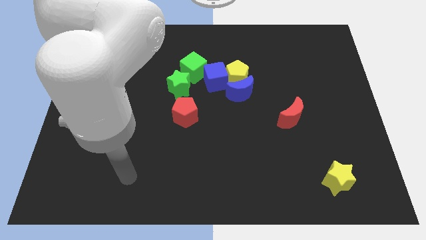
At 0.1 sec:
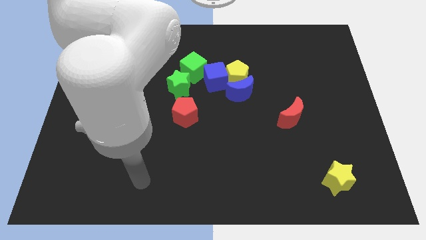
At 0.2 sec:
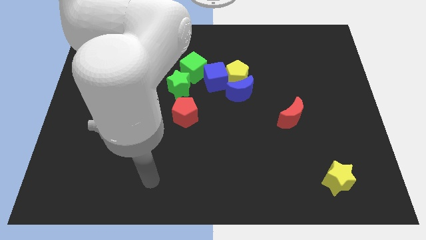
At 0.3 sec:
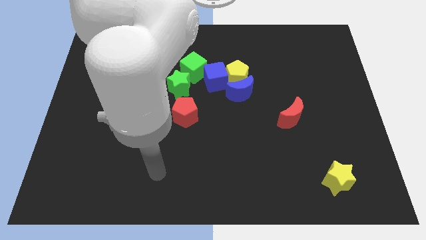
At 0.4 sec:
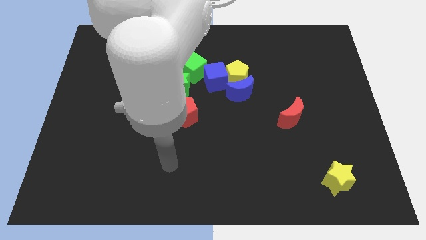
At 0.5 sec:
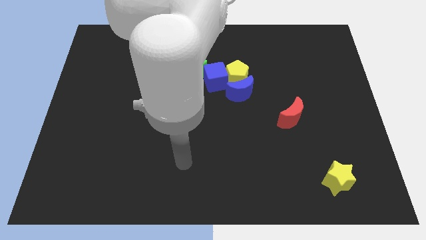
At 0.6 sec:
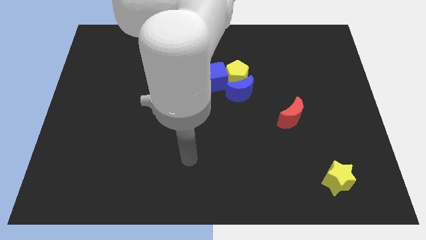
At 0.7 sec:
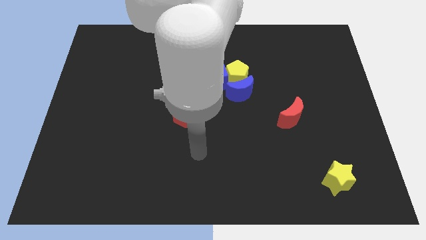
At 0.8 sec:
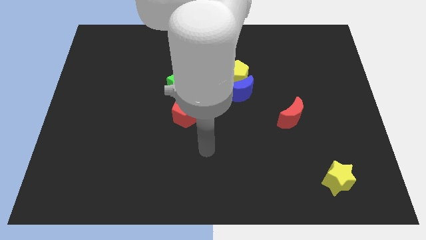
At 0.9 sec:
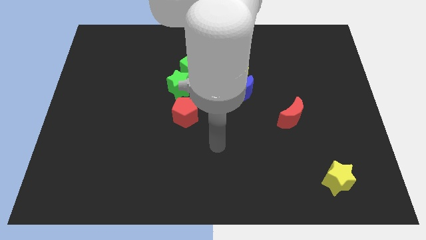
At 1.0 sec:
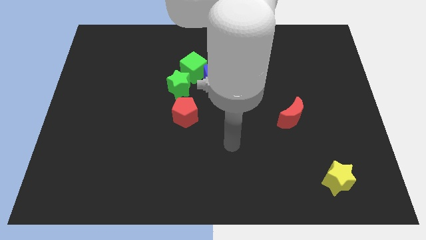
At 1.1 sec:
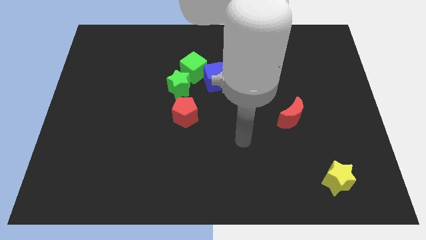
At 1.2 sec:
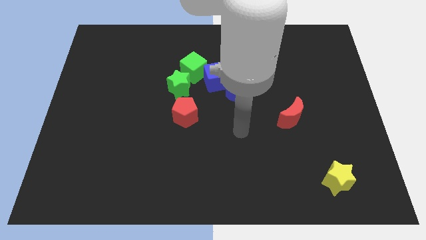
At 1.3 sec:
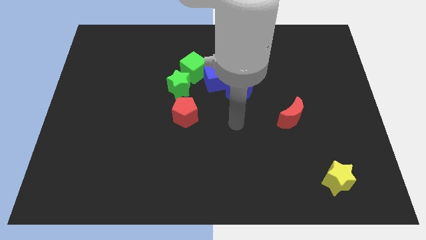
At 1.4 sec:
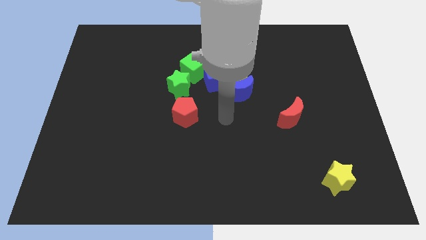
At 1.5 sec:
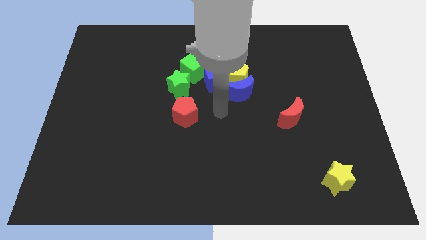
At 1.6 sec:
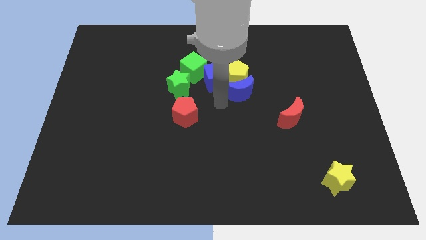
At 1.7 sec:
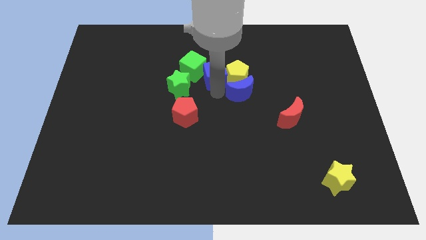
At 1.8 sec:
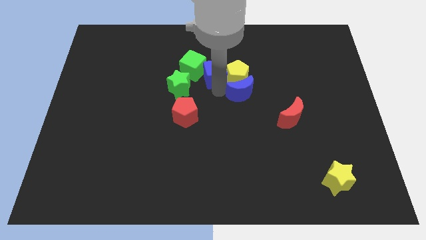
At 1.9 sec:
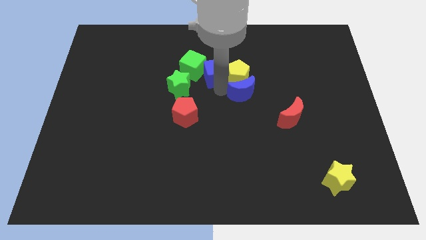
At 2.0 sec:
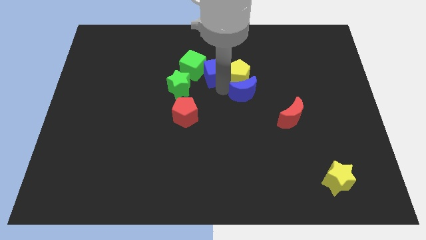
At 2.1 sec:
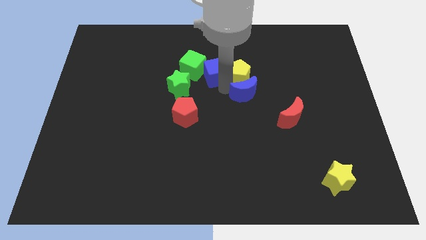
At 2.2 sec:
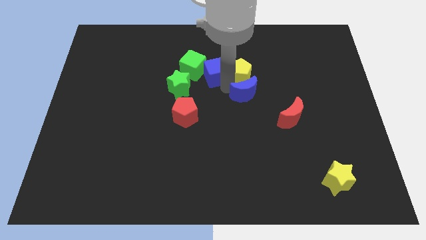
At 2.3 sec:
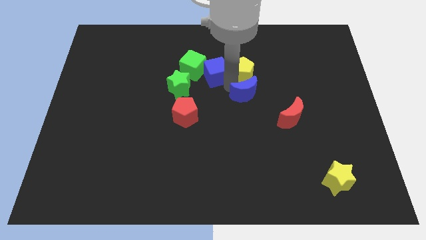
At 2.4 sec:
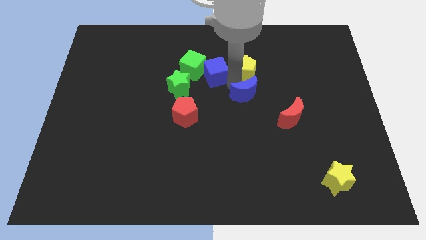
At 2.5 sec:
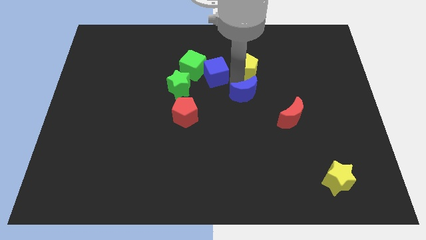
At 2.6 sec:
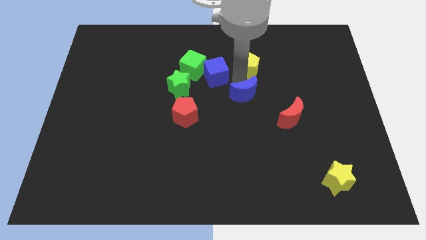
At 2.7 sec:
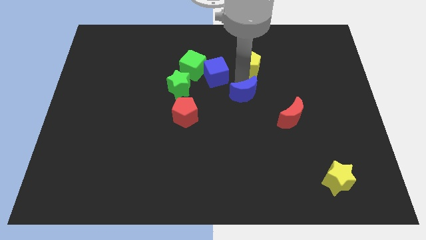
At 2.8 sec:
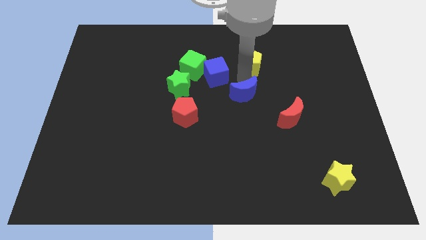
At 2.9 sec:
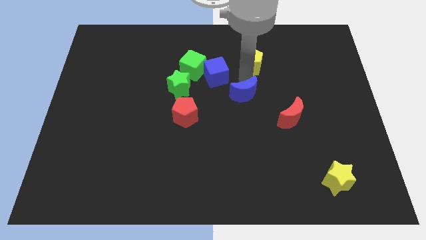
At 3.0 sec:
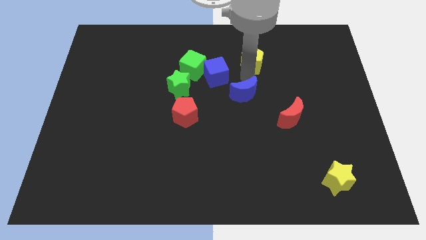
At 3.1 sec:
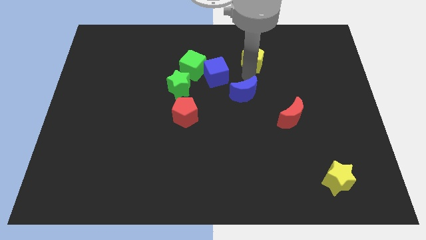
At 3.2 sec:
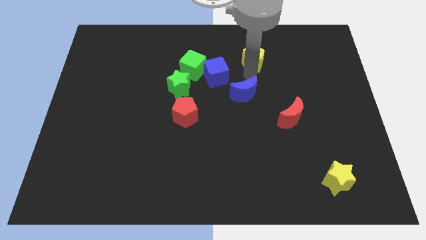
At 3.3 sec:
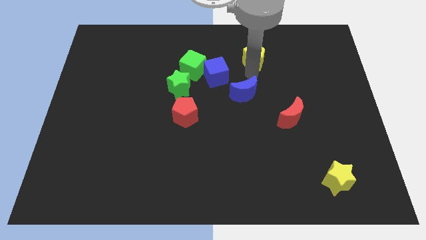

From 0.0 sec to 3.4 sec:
separate the yellow pentagon from the blue moon and blue cube

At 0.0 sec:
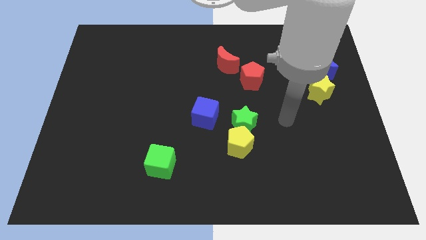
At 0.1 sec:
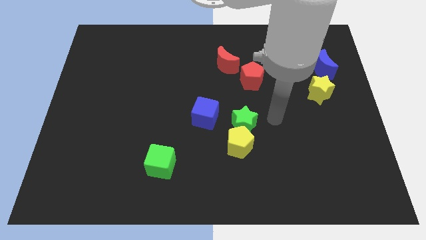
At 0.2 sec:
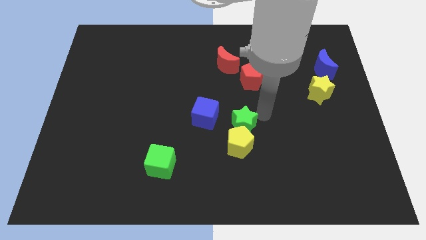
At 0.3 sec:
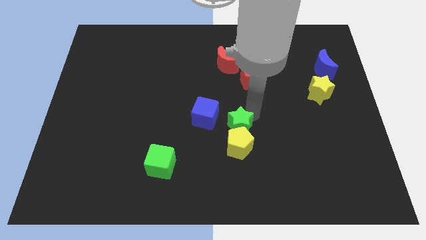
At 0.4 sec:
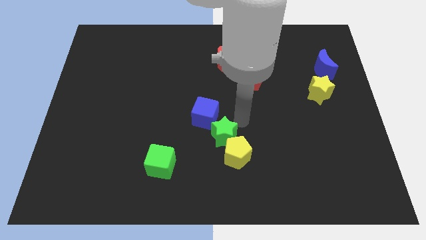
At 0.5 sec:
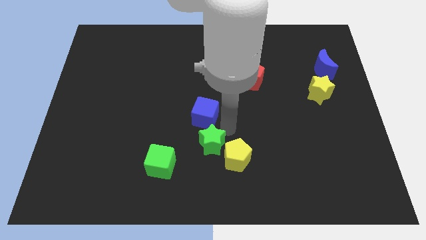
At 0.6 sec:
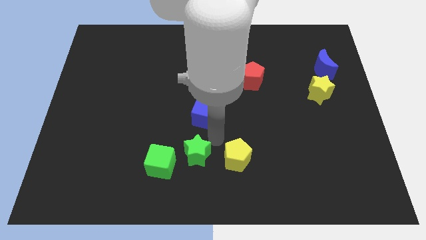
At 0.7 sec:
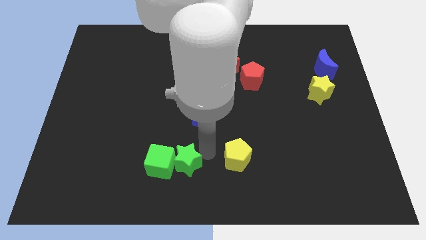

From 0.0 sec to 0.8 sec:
move the yellow pentagon away from the green star

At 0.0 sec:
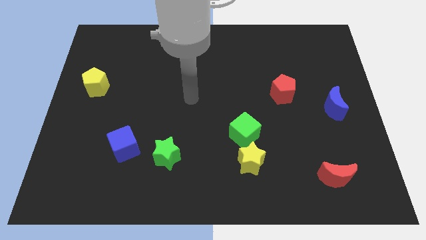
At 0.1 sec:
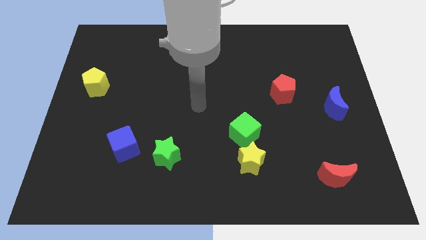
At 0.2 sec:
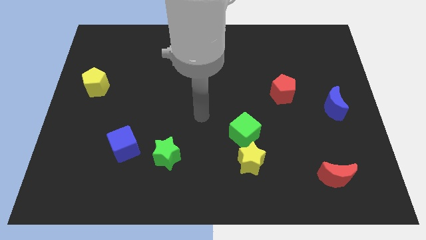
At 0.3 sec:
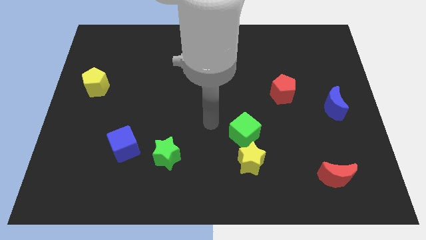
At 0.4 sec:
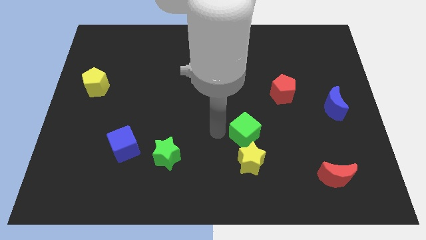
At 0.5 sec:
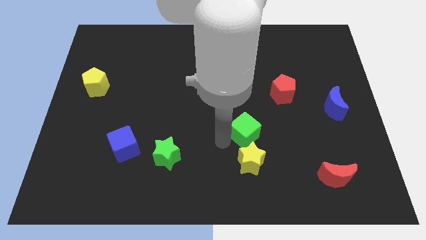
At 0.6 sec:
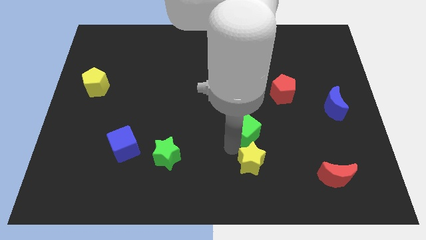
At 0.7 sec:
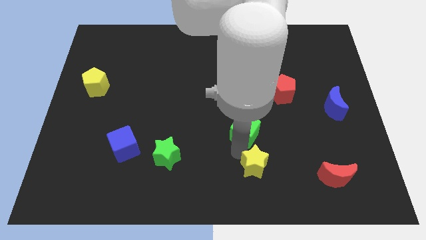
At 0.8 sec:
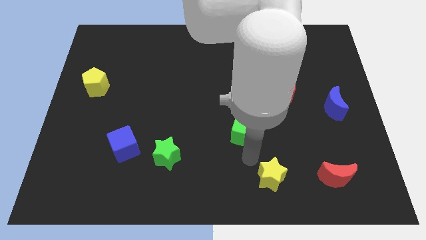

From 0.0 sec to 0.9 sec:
separate the green cube from the yellow star

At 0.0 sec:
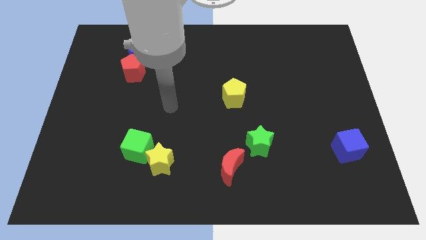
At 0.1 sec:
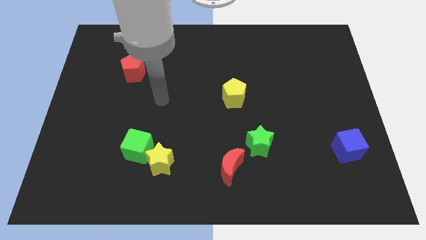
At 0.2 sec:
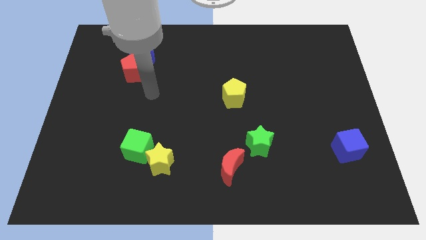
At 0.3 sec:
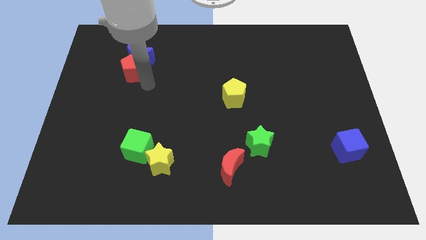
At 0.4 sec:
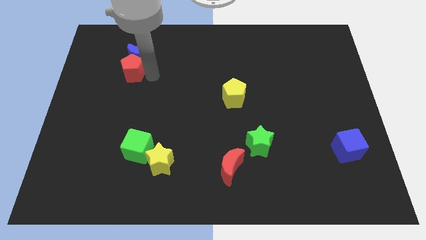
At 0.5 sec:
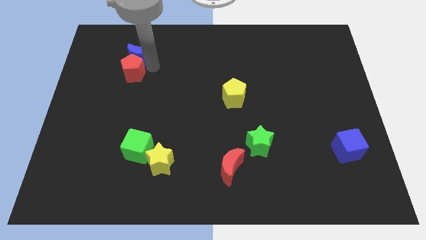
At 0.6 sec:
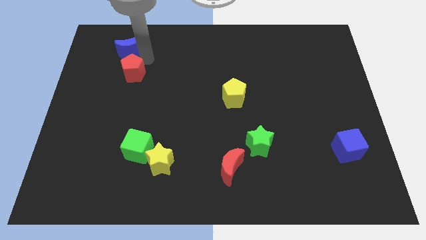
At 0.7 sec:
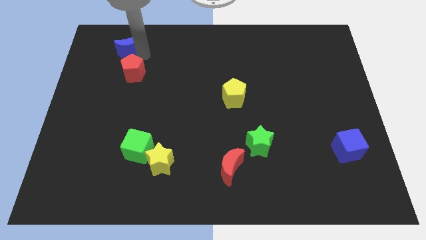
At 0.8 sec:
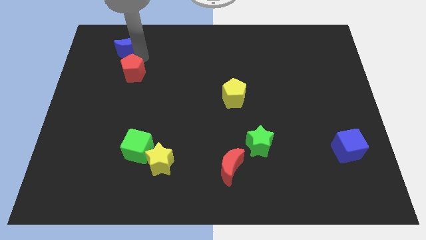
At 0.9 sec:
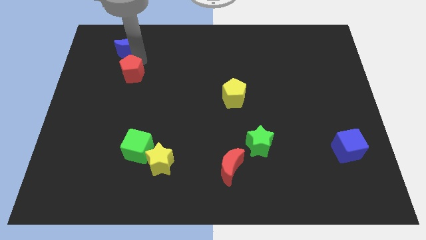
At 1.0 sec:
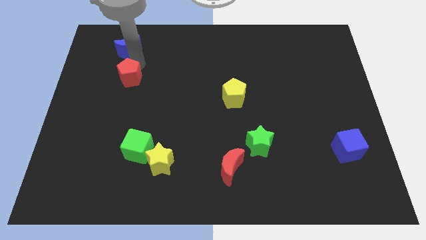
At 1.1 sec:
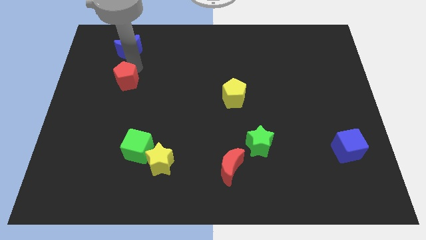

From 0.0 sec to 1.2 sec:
pull the red pentagon apart from the blue moon

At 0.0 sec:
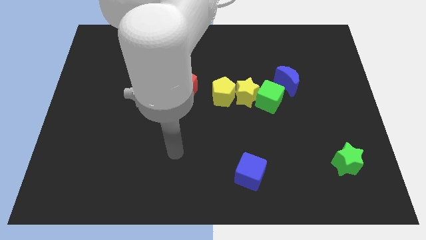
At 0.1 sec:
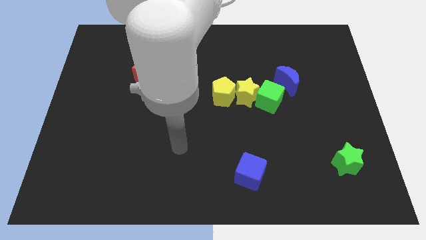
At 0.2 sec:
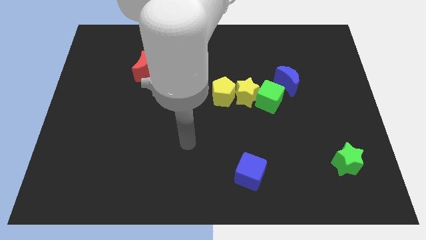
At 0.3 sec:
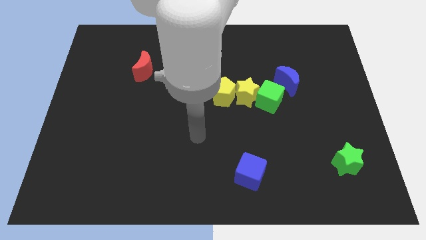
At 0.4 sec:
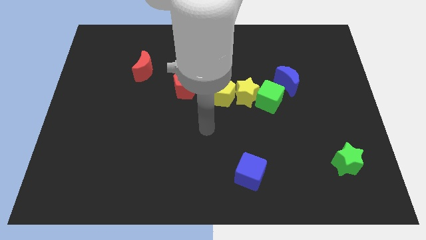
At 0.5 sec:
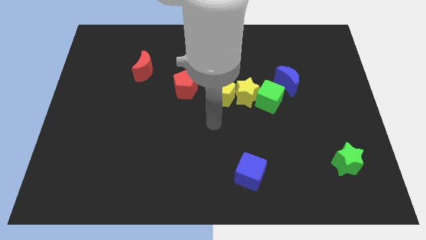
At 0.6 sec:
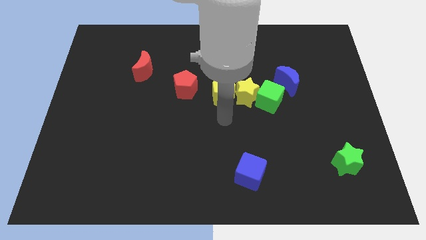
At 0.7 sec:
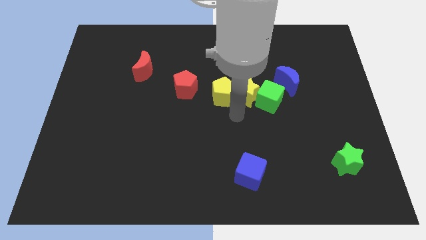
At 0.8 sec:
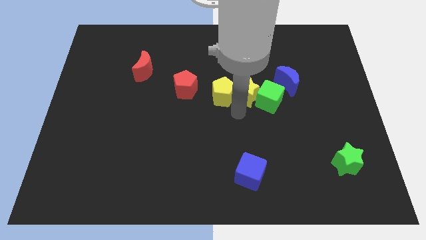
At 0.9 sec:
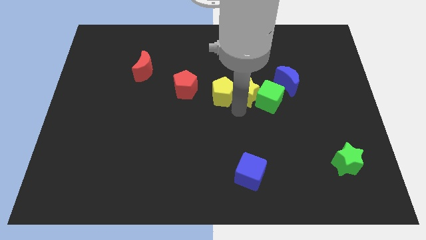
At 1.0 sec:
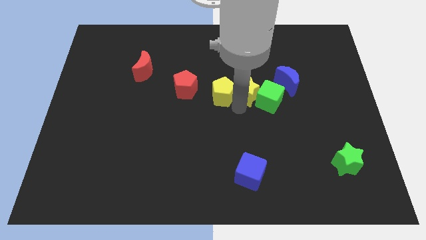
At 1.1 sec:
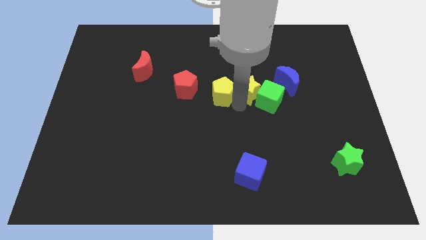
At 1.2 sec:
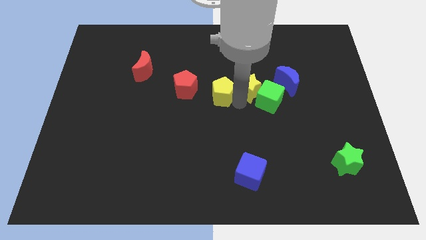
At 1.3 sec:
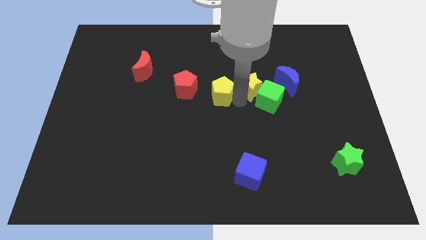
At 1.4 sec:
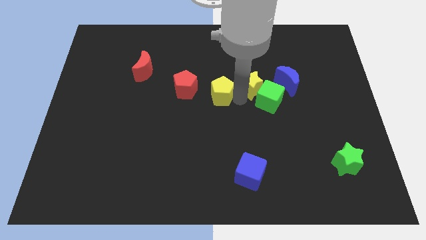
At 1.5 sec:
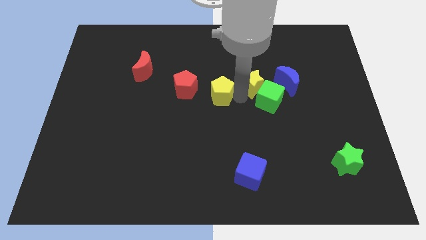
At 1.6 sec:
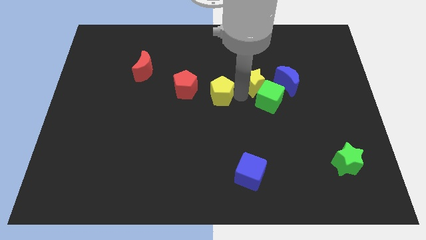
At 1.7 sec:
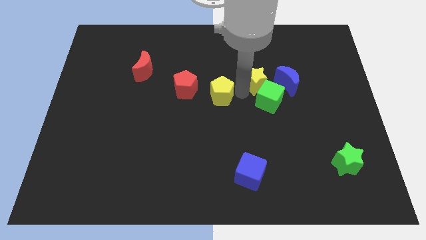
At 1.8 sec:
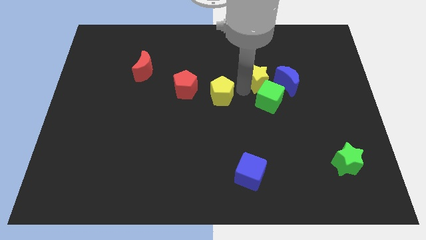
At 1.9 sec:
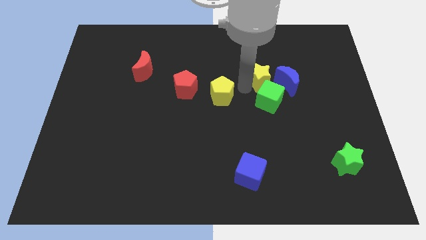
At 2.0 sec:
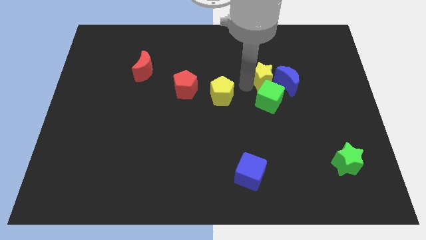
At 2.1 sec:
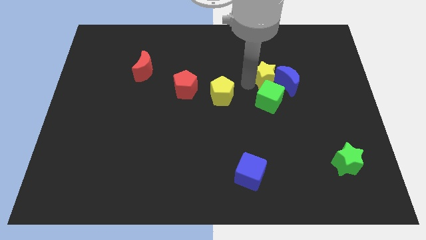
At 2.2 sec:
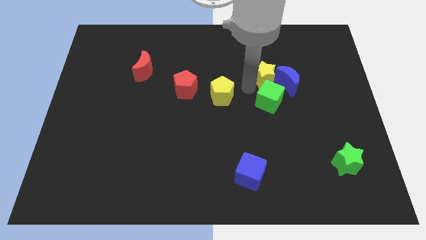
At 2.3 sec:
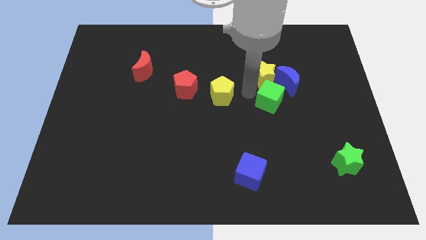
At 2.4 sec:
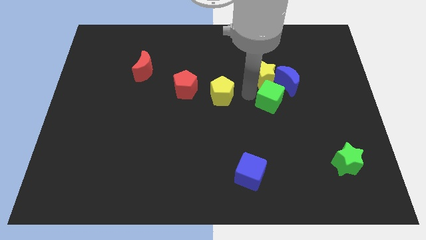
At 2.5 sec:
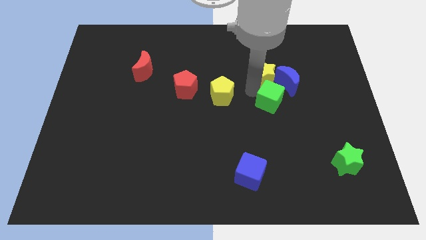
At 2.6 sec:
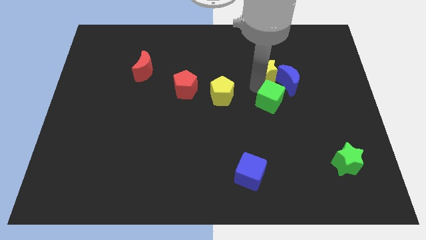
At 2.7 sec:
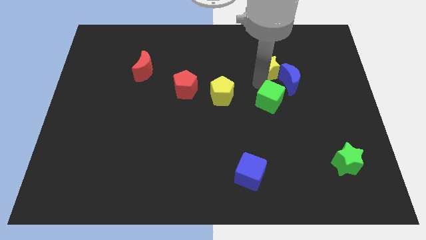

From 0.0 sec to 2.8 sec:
separate the yellow star from the green cube and yellow pentagon

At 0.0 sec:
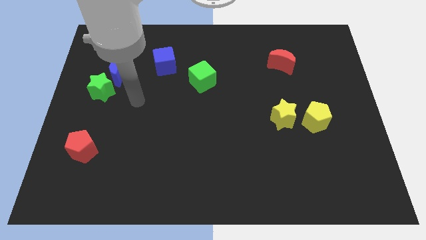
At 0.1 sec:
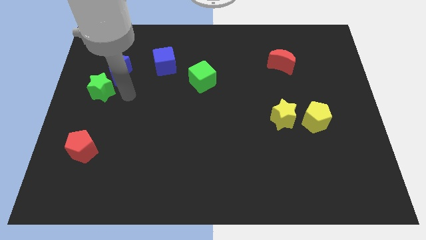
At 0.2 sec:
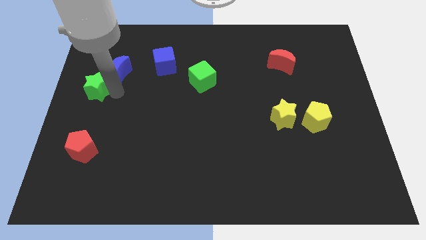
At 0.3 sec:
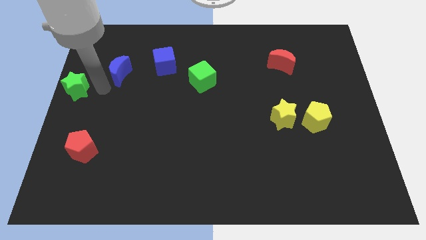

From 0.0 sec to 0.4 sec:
separate the blue moon from the green star
